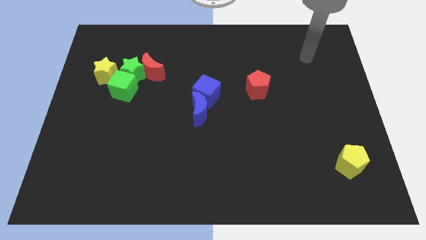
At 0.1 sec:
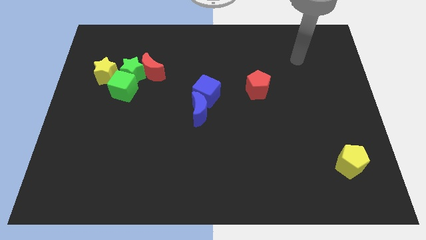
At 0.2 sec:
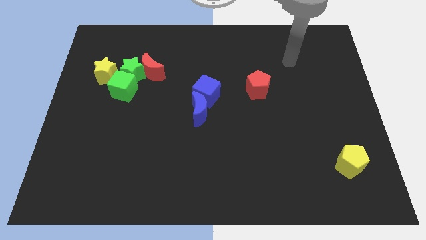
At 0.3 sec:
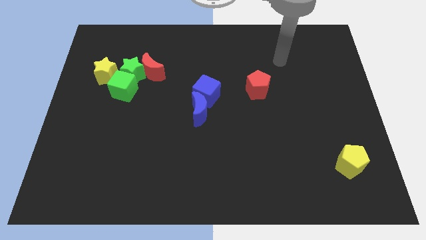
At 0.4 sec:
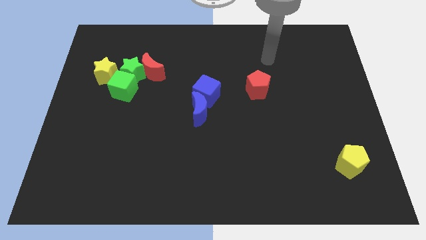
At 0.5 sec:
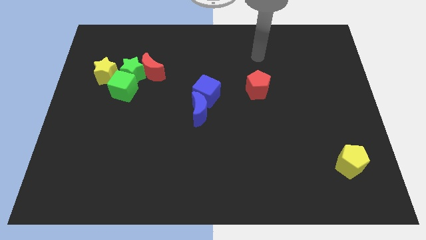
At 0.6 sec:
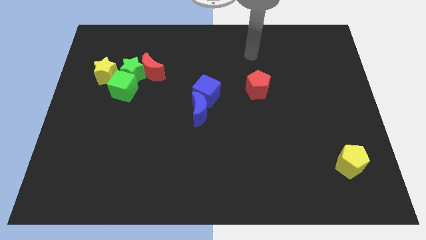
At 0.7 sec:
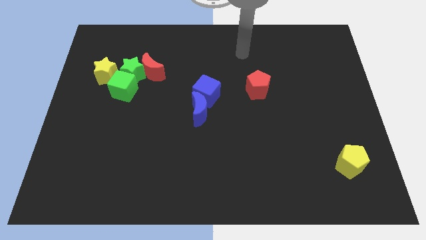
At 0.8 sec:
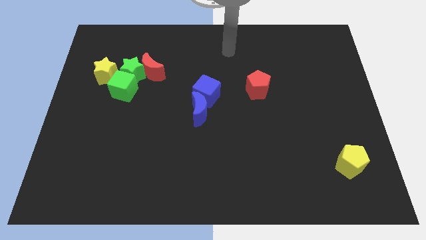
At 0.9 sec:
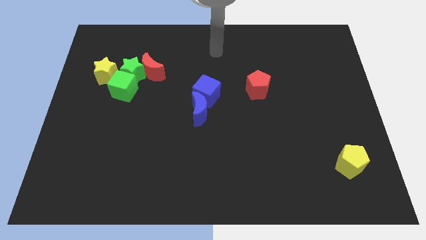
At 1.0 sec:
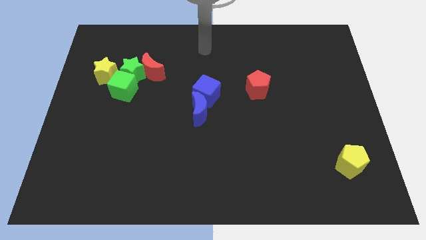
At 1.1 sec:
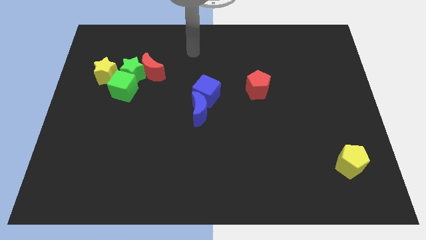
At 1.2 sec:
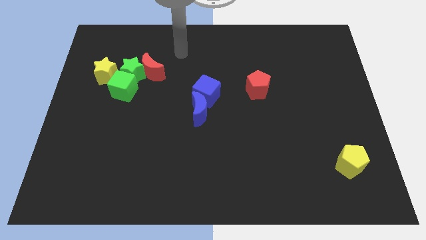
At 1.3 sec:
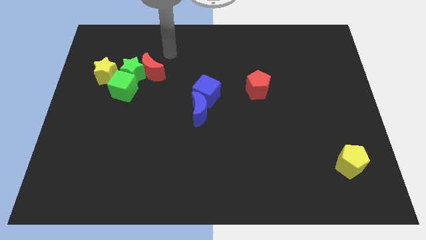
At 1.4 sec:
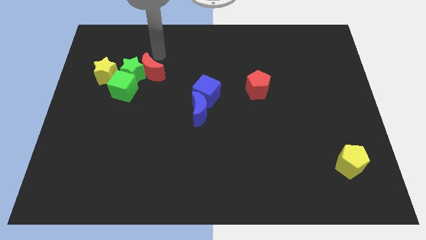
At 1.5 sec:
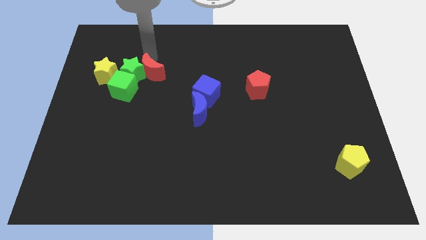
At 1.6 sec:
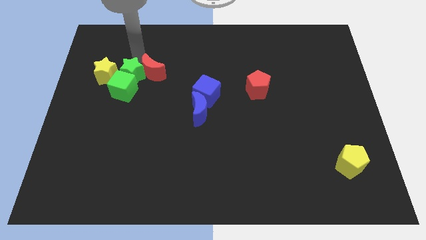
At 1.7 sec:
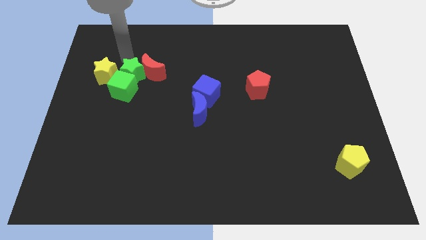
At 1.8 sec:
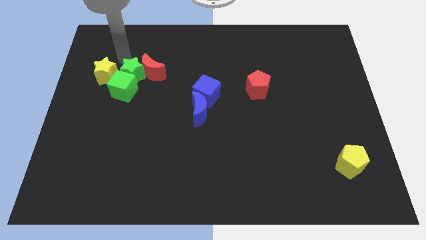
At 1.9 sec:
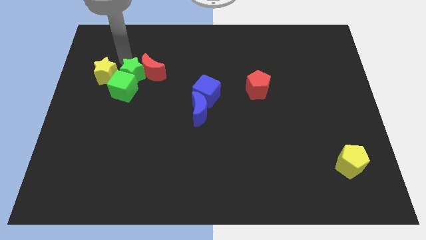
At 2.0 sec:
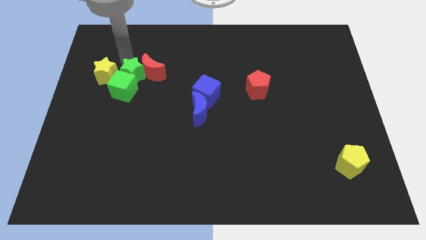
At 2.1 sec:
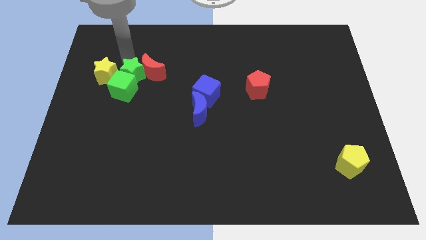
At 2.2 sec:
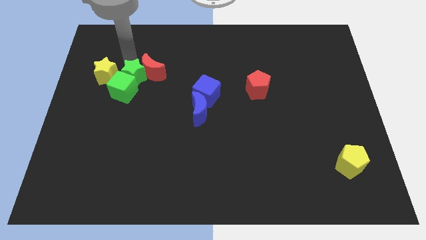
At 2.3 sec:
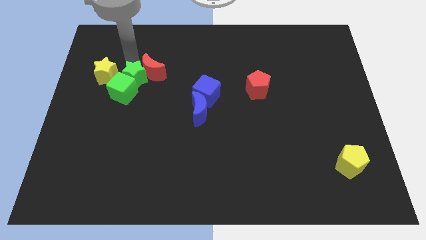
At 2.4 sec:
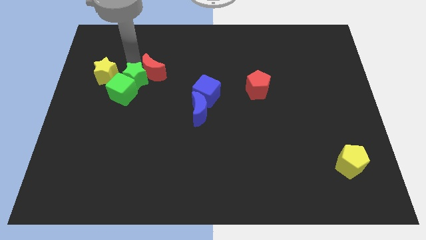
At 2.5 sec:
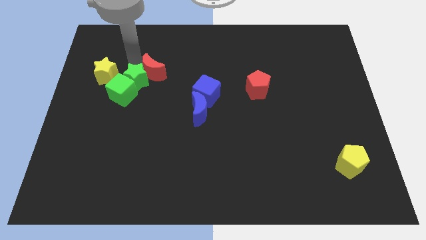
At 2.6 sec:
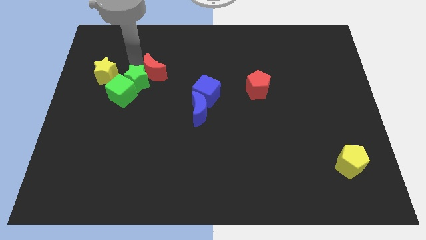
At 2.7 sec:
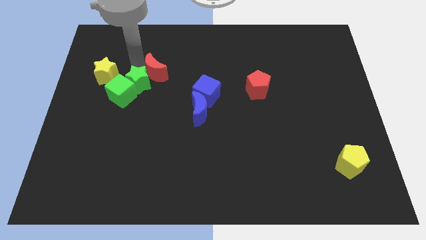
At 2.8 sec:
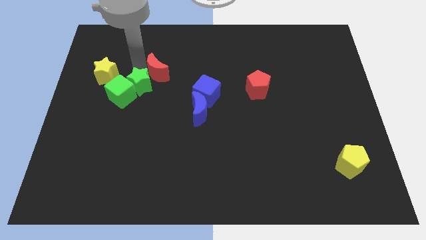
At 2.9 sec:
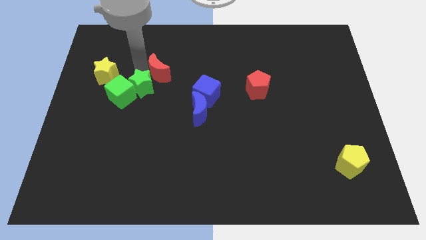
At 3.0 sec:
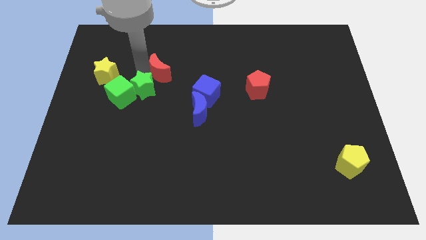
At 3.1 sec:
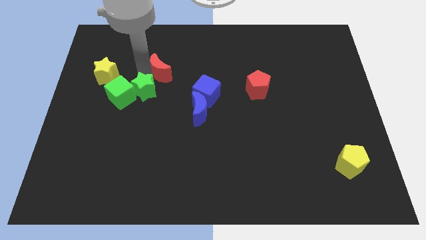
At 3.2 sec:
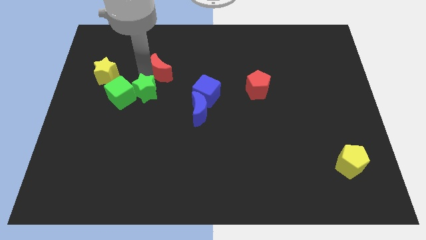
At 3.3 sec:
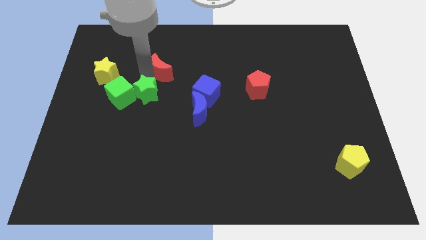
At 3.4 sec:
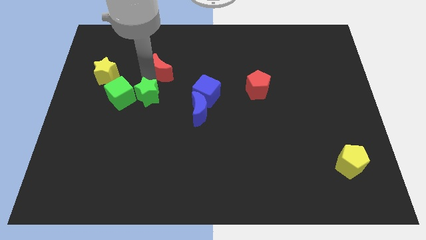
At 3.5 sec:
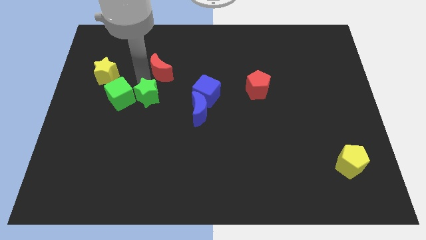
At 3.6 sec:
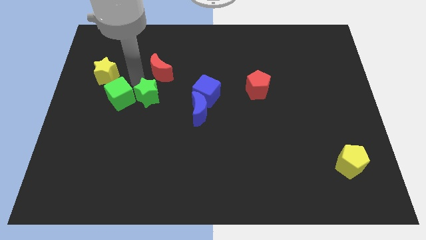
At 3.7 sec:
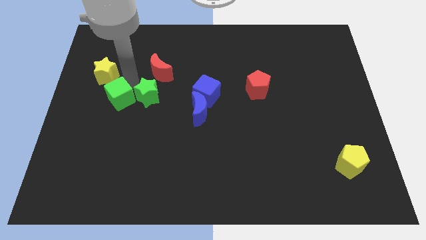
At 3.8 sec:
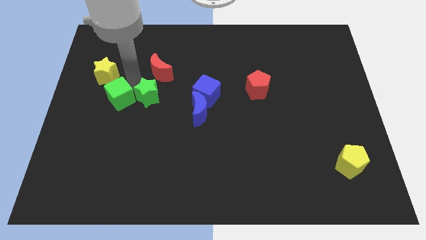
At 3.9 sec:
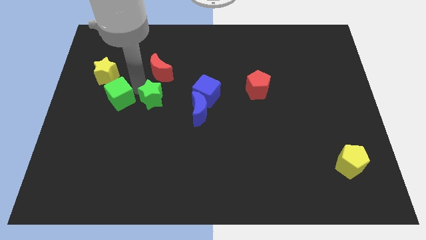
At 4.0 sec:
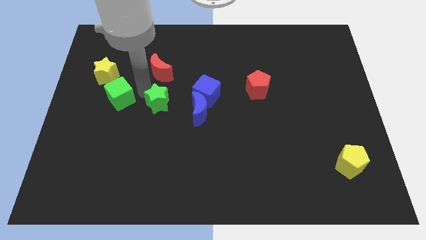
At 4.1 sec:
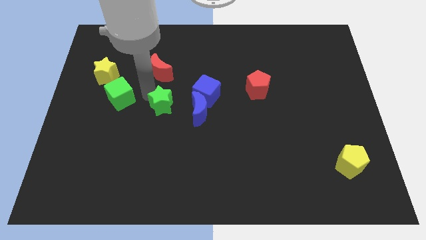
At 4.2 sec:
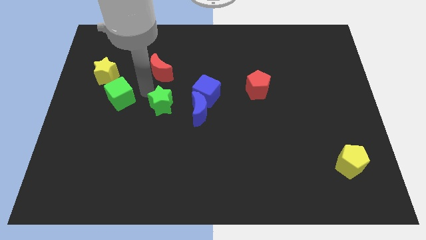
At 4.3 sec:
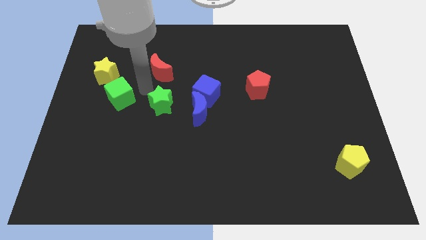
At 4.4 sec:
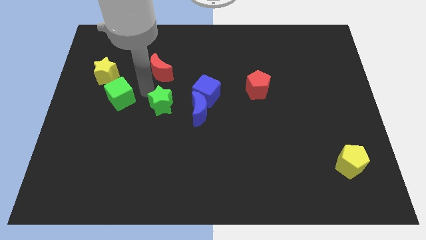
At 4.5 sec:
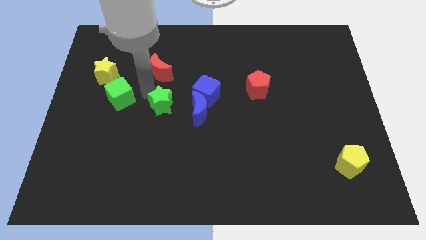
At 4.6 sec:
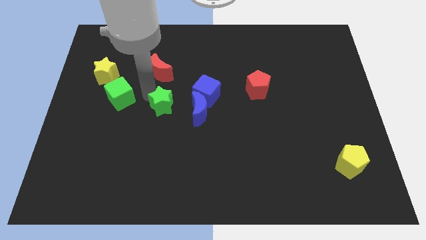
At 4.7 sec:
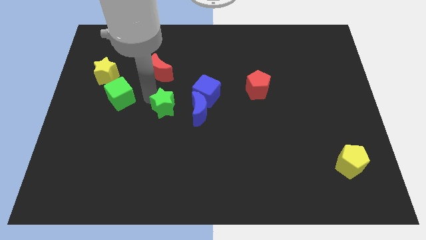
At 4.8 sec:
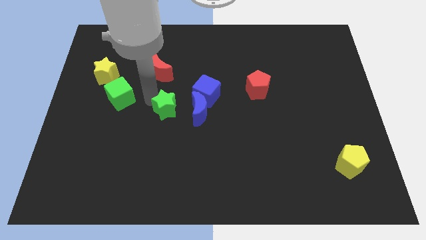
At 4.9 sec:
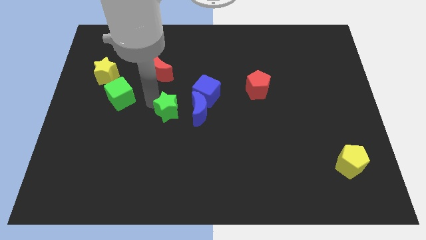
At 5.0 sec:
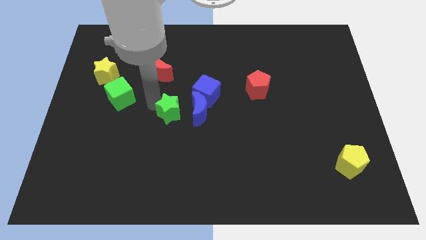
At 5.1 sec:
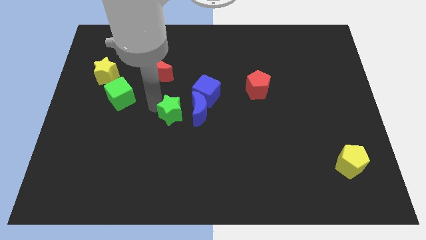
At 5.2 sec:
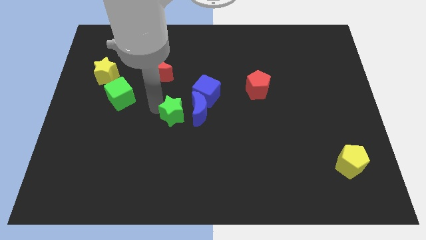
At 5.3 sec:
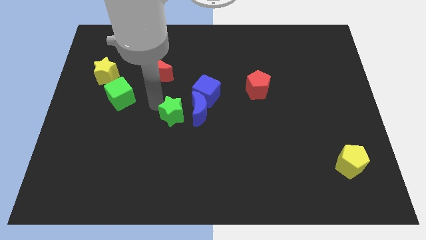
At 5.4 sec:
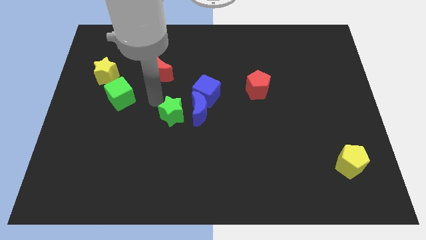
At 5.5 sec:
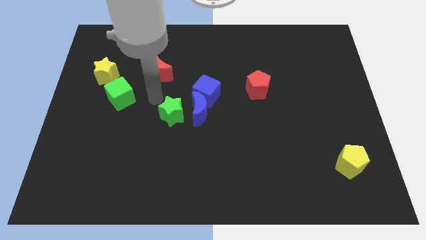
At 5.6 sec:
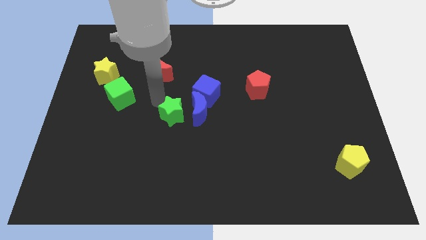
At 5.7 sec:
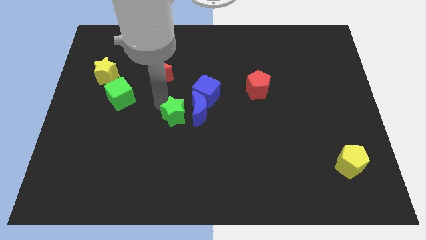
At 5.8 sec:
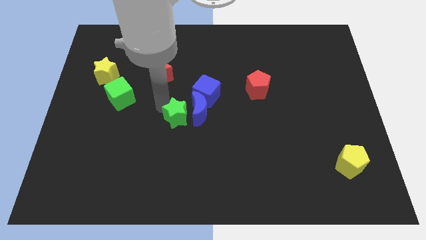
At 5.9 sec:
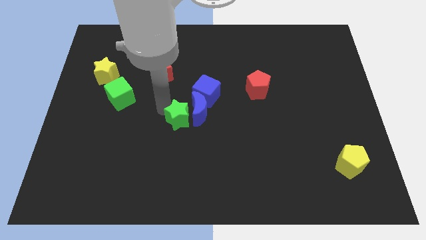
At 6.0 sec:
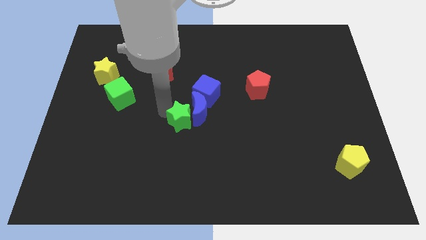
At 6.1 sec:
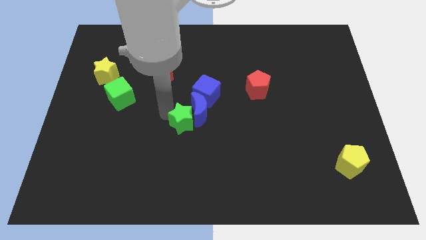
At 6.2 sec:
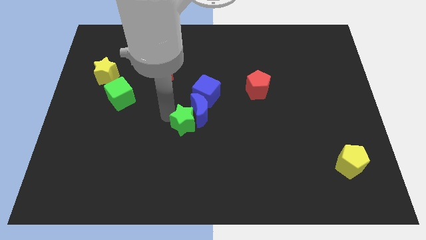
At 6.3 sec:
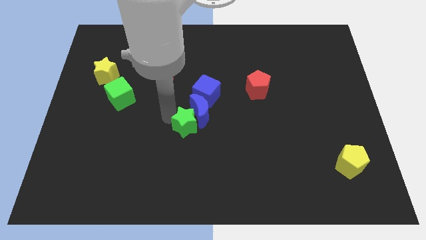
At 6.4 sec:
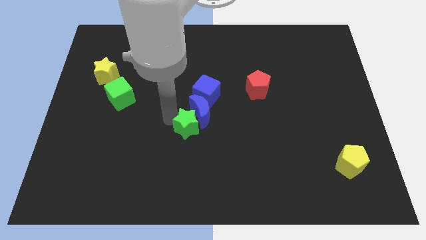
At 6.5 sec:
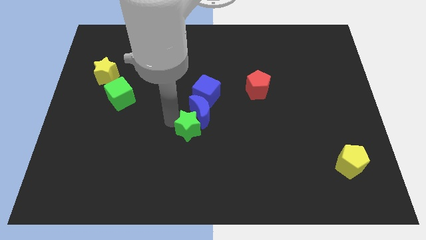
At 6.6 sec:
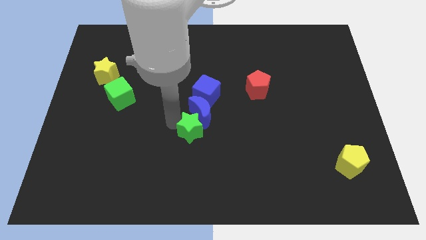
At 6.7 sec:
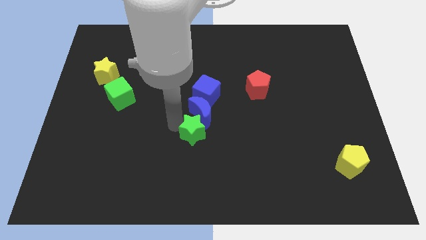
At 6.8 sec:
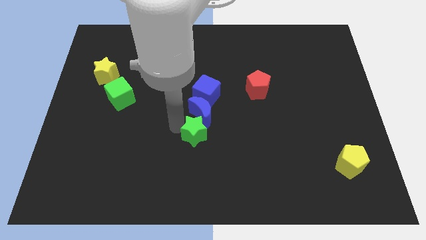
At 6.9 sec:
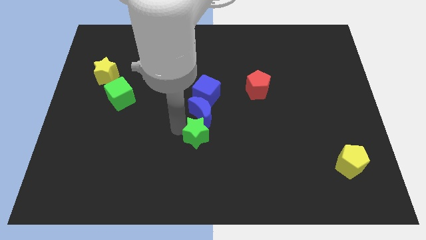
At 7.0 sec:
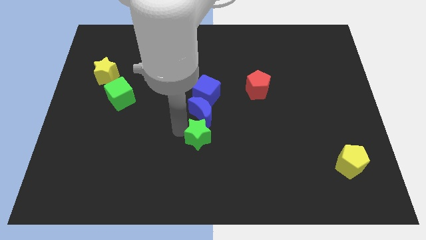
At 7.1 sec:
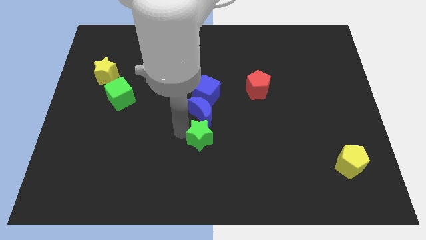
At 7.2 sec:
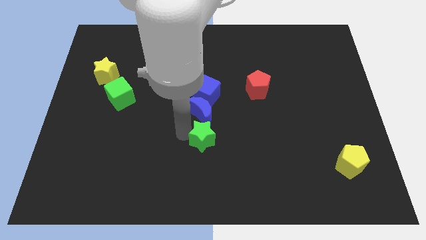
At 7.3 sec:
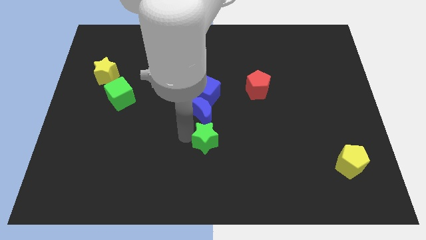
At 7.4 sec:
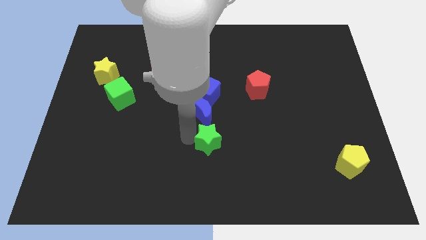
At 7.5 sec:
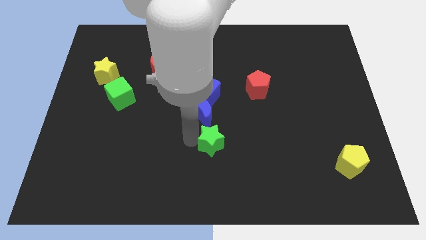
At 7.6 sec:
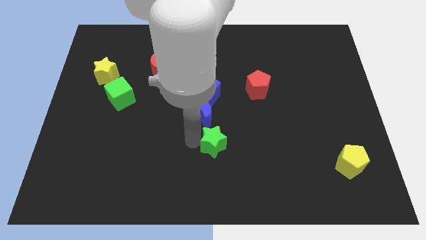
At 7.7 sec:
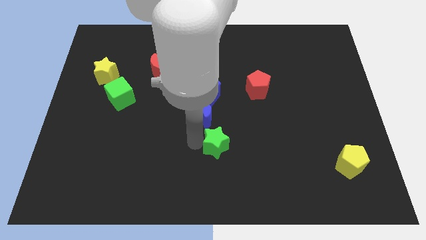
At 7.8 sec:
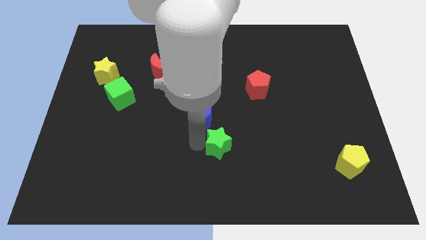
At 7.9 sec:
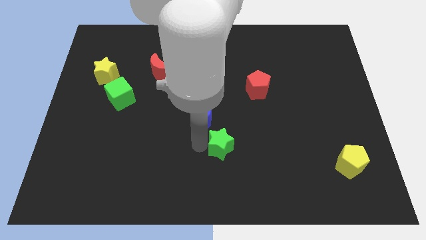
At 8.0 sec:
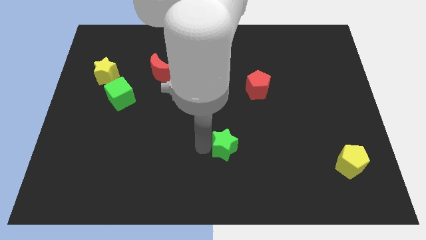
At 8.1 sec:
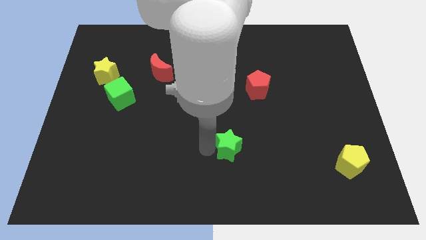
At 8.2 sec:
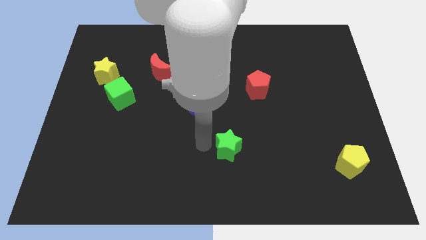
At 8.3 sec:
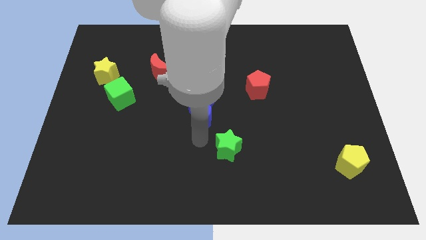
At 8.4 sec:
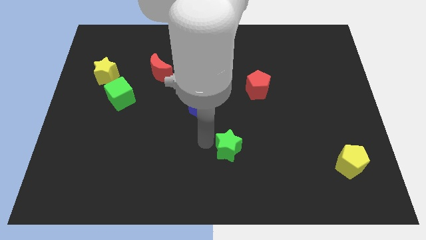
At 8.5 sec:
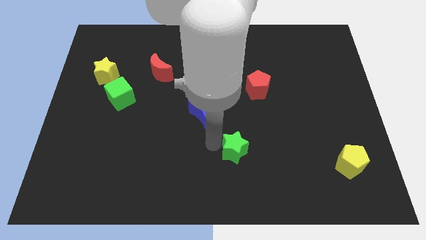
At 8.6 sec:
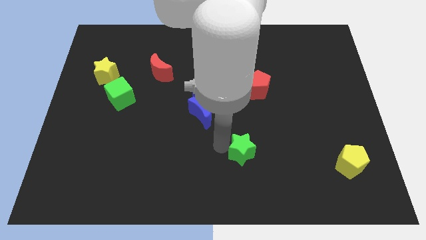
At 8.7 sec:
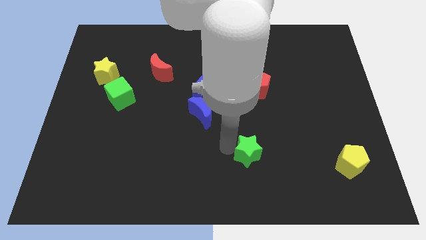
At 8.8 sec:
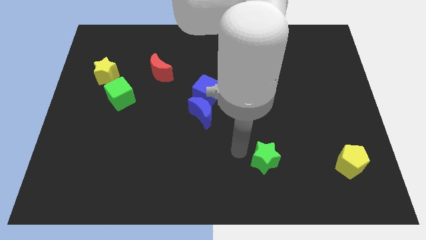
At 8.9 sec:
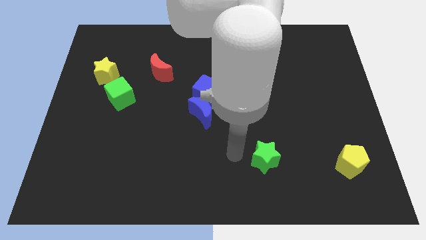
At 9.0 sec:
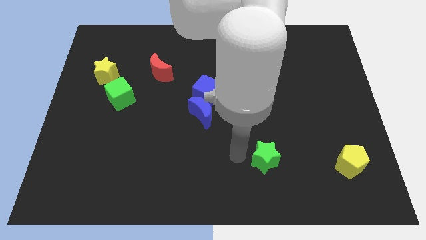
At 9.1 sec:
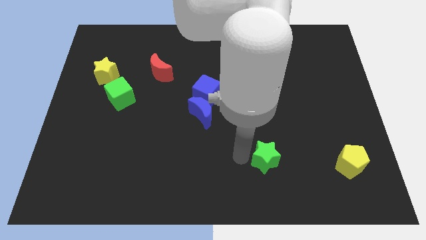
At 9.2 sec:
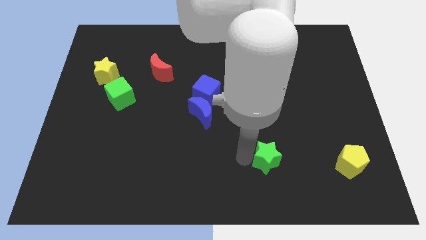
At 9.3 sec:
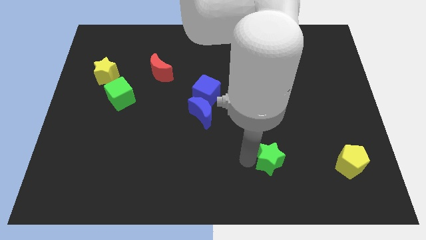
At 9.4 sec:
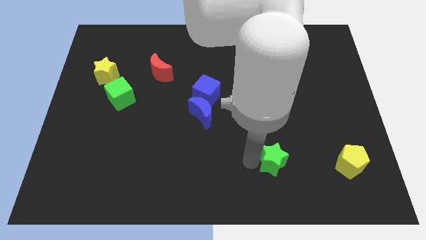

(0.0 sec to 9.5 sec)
move the green star to the left of the yellow pentagon
